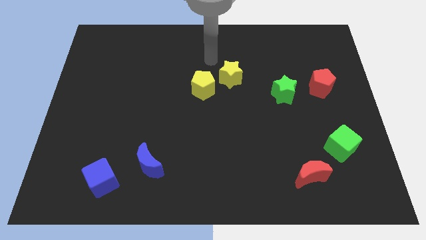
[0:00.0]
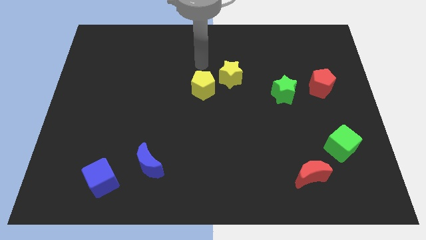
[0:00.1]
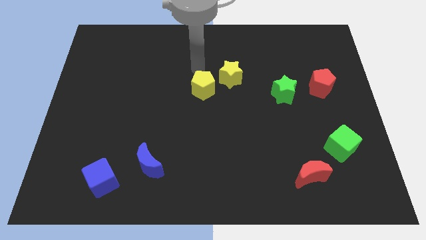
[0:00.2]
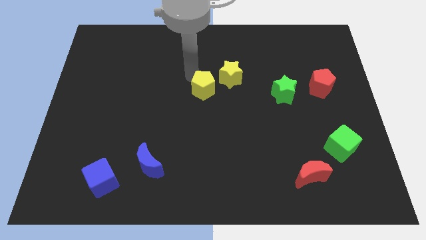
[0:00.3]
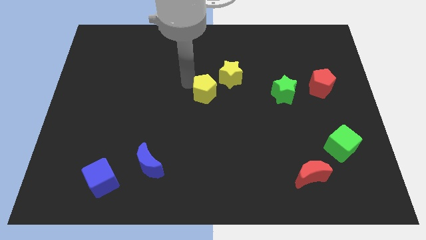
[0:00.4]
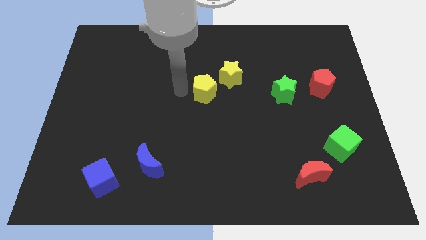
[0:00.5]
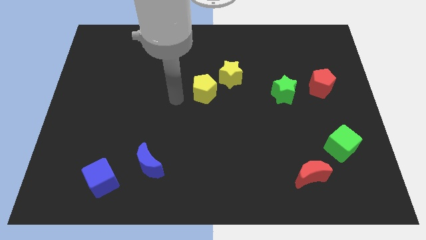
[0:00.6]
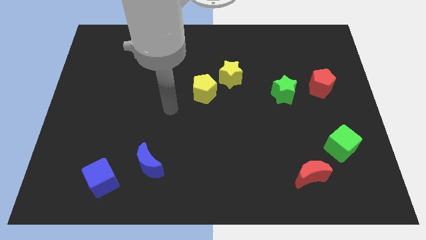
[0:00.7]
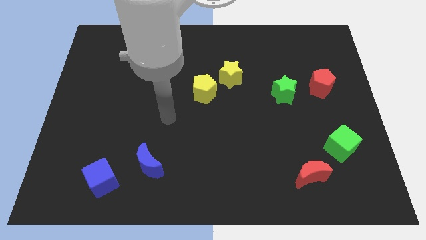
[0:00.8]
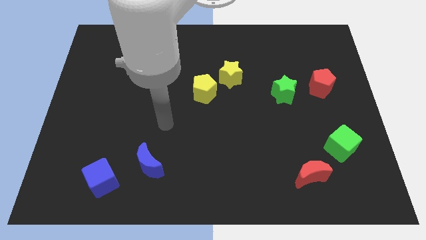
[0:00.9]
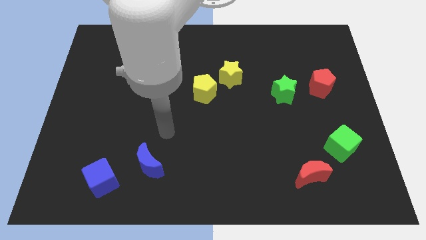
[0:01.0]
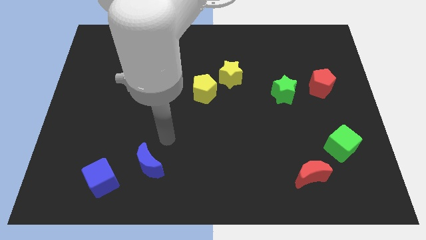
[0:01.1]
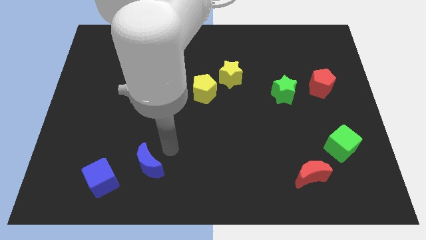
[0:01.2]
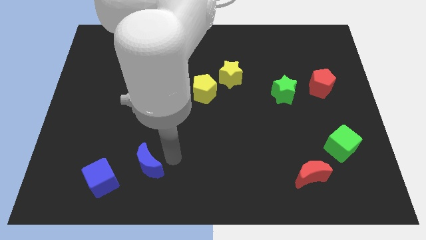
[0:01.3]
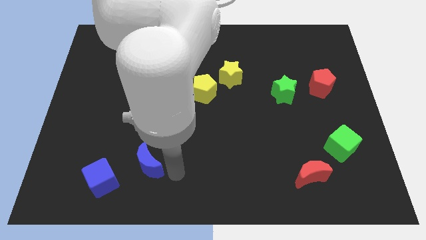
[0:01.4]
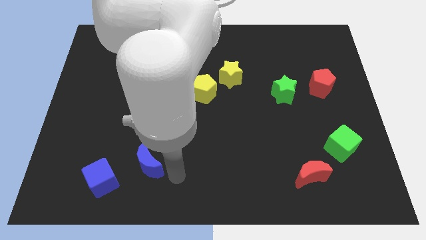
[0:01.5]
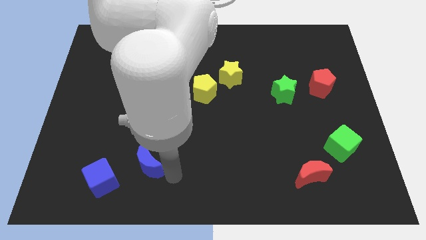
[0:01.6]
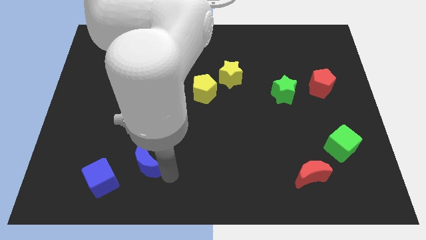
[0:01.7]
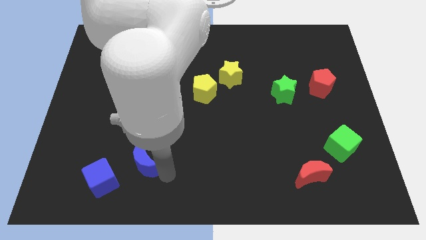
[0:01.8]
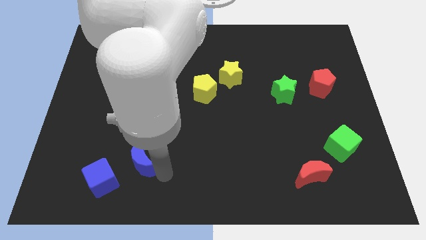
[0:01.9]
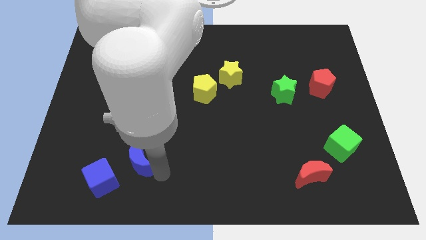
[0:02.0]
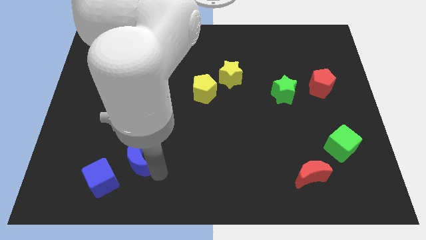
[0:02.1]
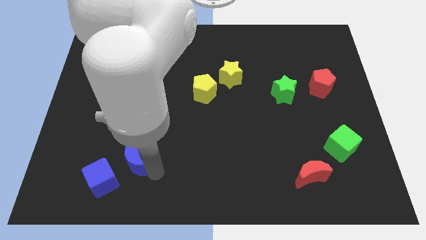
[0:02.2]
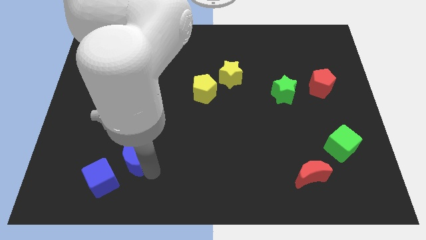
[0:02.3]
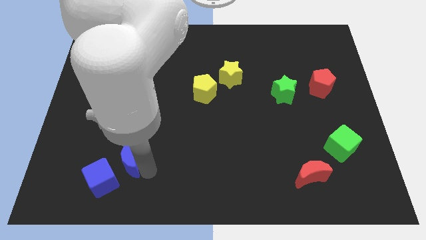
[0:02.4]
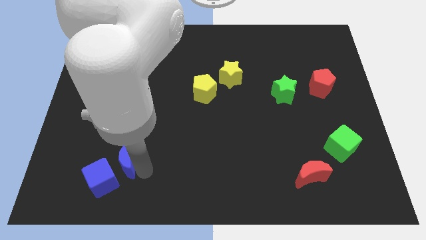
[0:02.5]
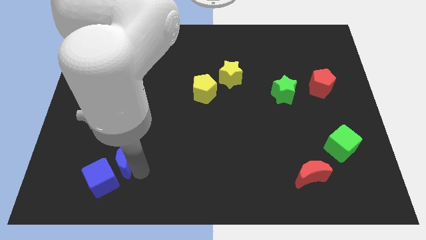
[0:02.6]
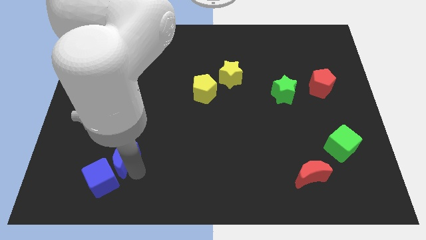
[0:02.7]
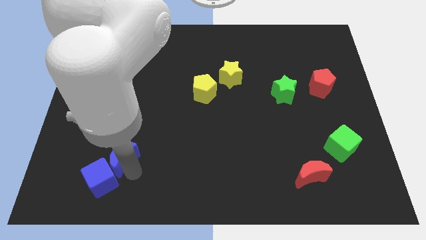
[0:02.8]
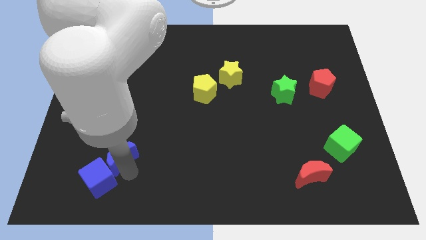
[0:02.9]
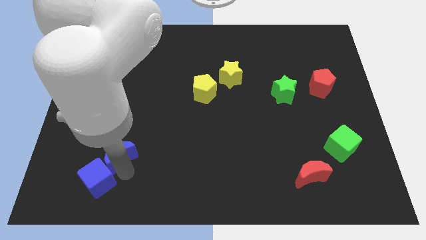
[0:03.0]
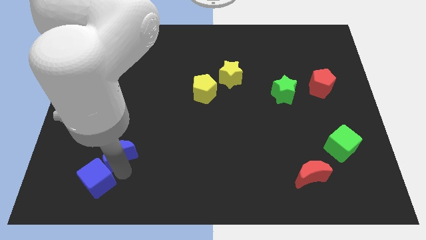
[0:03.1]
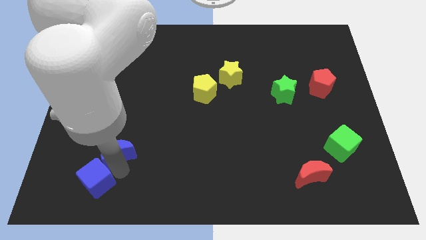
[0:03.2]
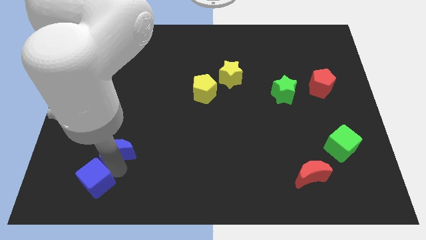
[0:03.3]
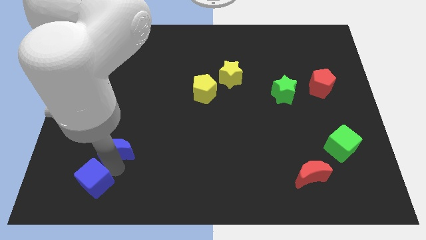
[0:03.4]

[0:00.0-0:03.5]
move the blue moon a bit upwards and then left

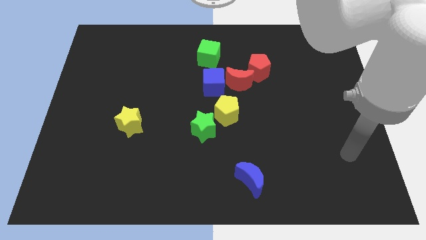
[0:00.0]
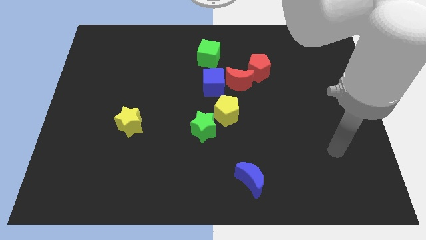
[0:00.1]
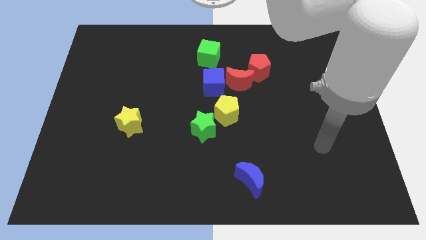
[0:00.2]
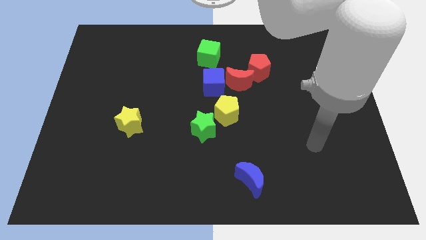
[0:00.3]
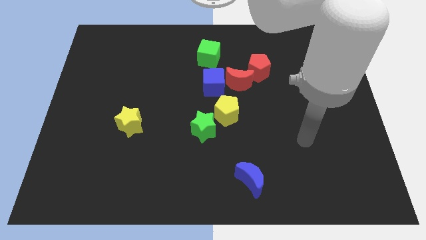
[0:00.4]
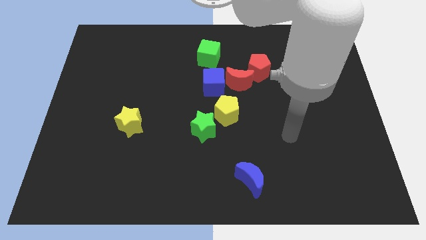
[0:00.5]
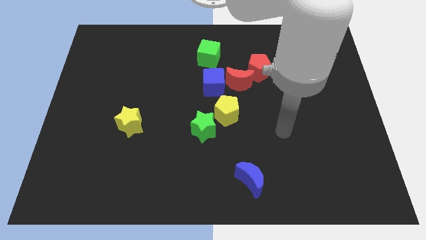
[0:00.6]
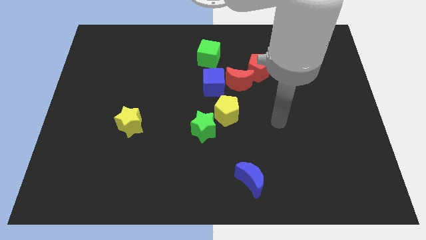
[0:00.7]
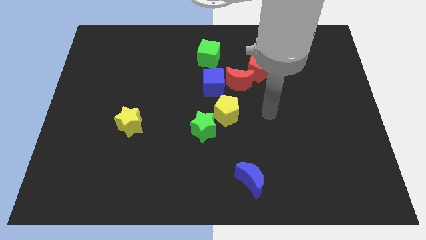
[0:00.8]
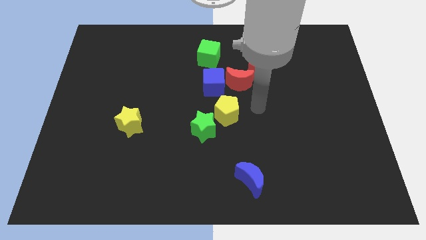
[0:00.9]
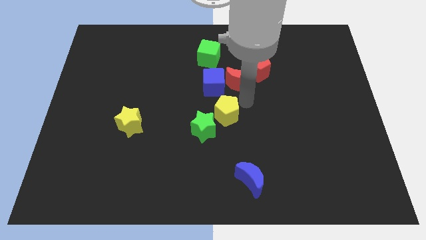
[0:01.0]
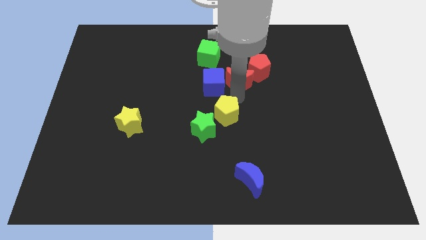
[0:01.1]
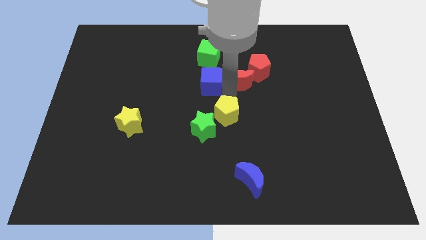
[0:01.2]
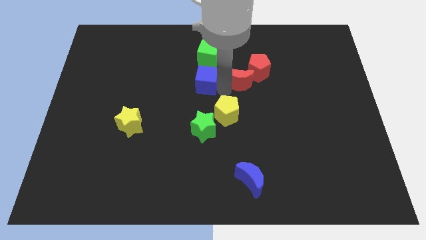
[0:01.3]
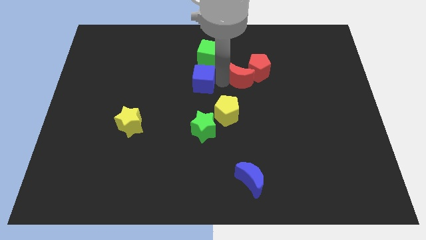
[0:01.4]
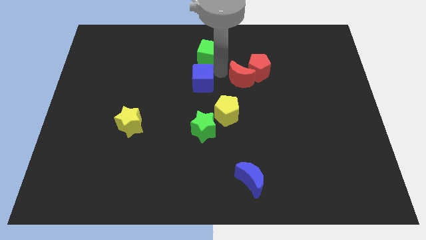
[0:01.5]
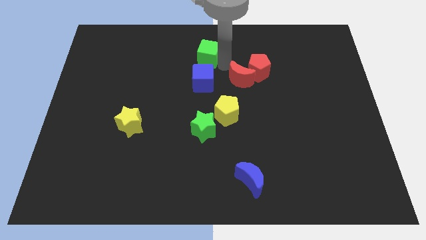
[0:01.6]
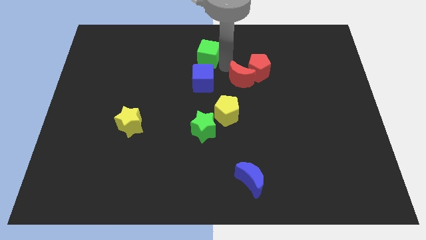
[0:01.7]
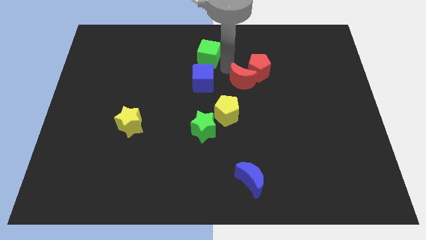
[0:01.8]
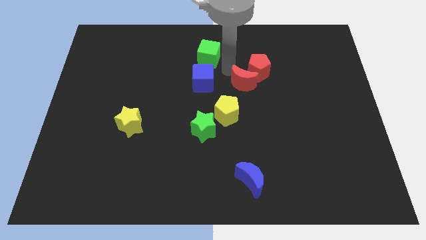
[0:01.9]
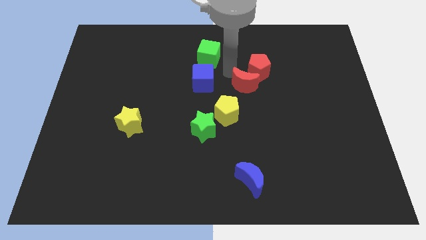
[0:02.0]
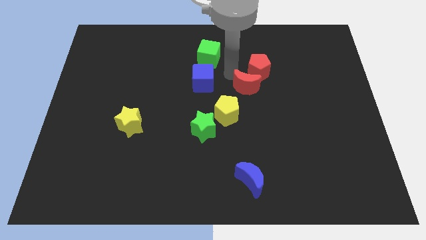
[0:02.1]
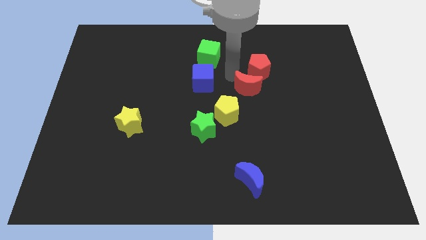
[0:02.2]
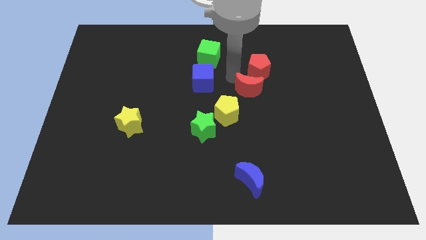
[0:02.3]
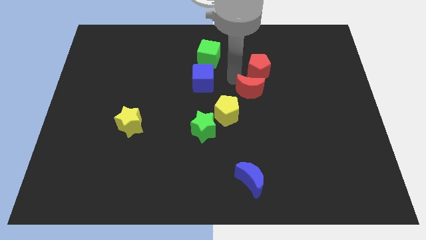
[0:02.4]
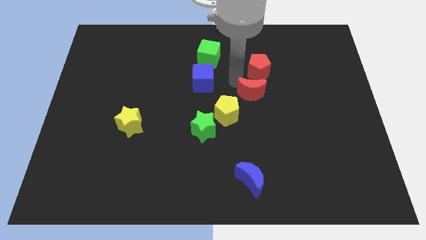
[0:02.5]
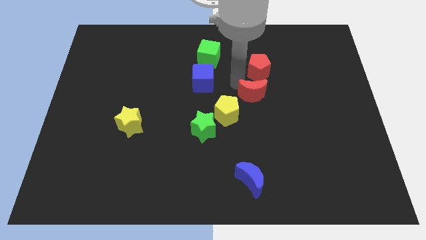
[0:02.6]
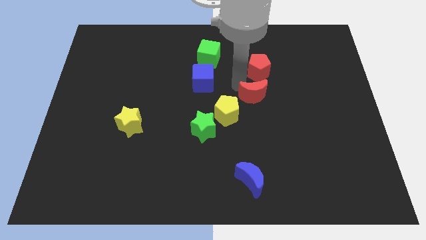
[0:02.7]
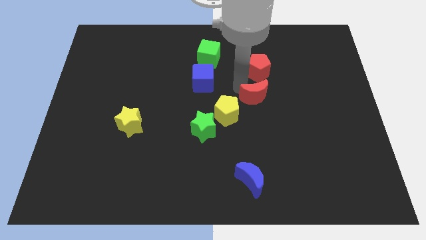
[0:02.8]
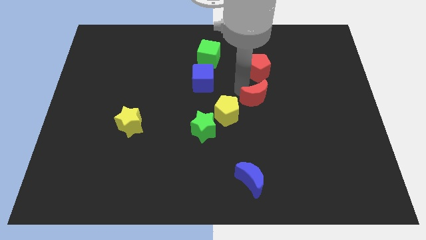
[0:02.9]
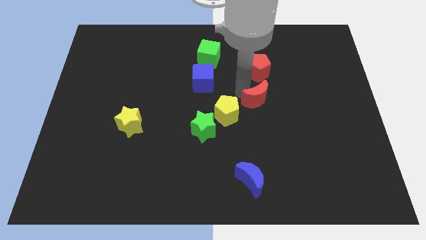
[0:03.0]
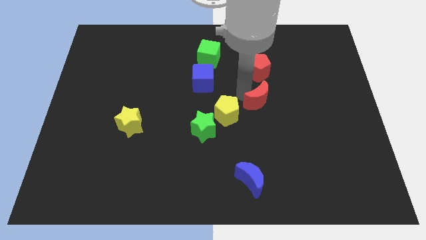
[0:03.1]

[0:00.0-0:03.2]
push the red moon a little bit down and then right

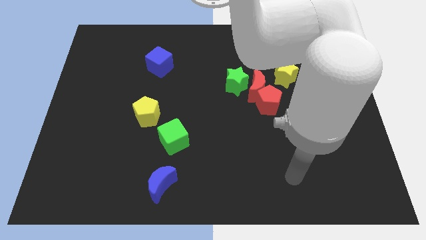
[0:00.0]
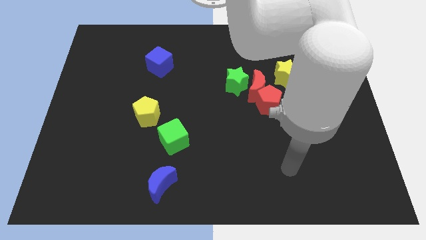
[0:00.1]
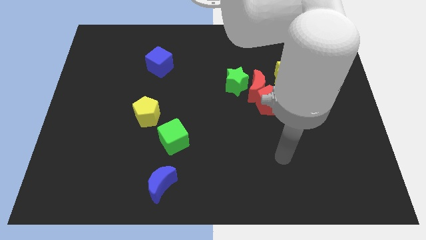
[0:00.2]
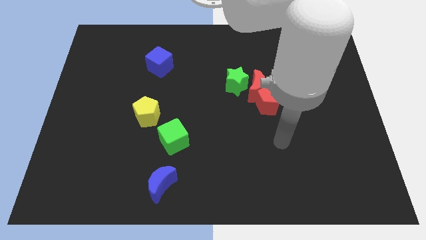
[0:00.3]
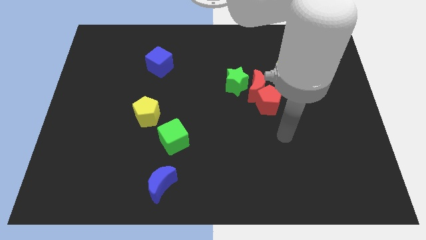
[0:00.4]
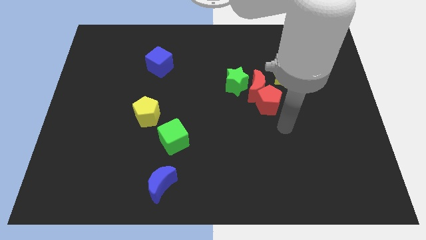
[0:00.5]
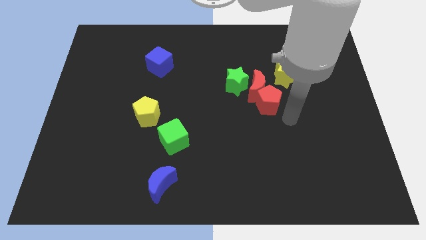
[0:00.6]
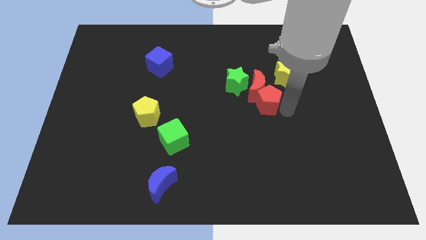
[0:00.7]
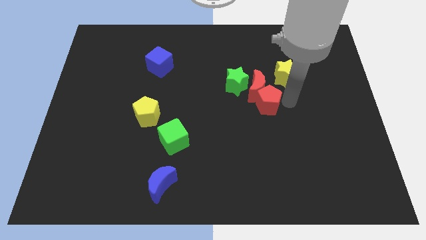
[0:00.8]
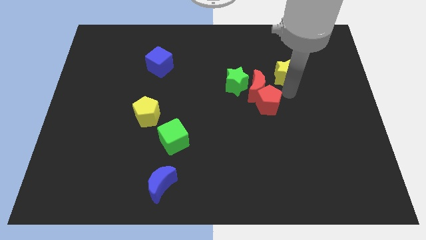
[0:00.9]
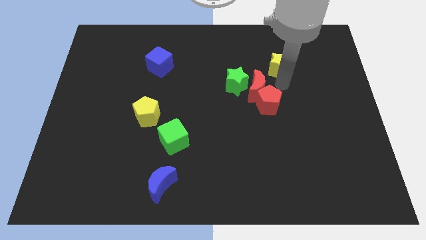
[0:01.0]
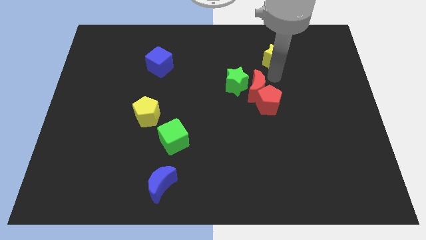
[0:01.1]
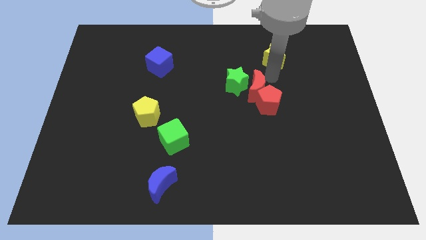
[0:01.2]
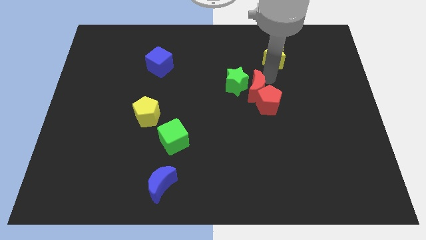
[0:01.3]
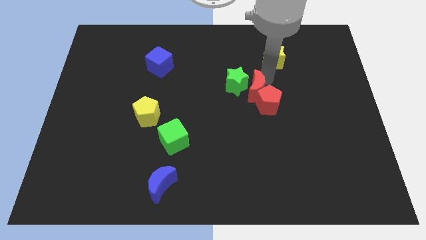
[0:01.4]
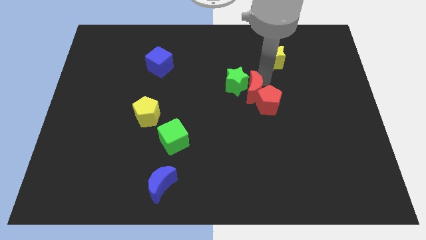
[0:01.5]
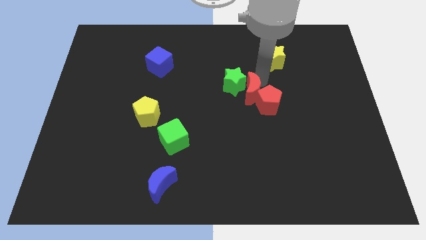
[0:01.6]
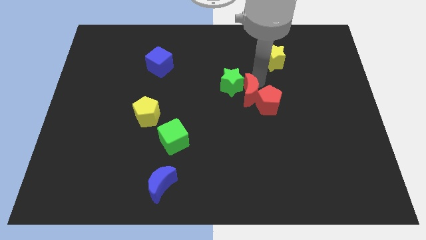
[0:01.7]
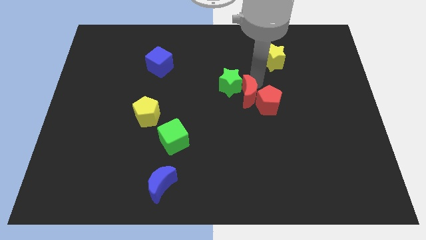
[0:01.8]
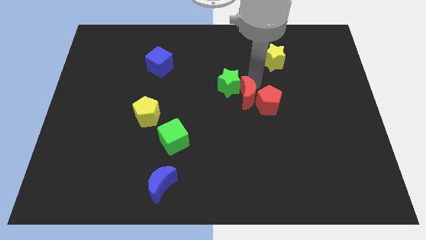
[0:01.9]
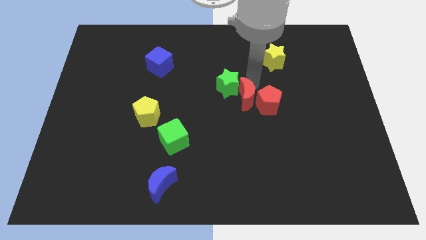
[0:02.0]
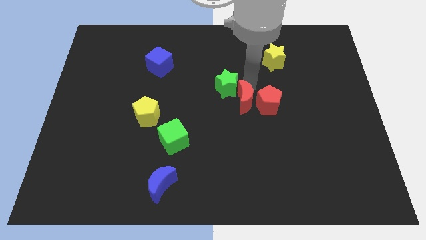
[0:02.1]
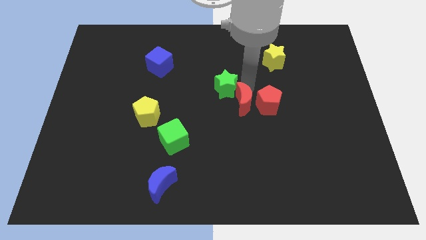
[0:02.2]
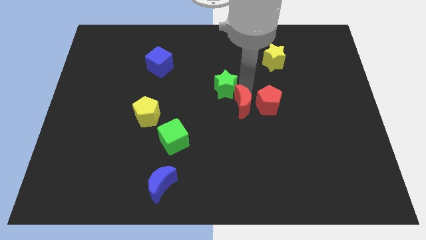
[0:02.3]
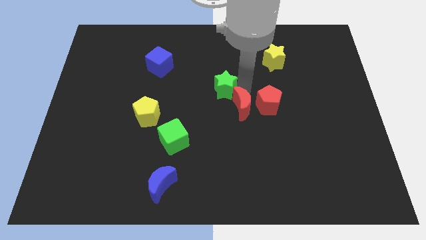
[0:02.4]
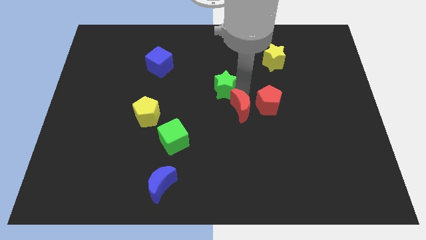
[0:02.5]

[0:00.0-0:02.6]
slide the red moon a bit downwards and to the left diagonally
